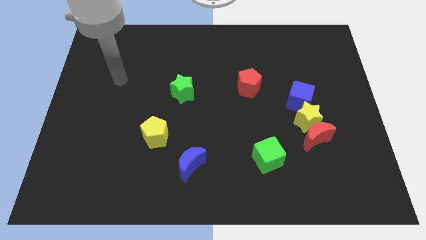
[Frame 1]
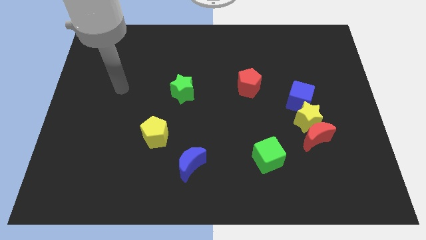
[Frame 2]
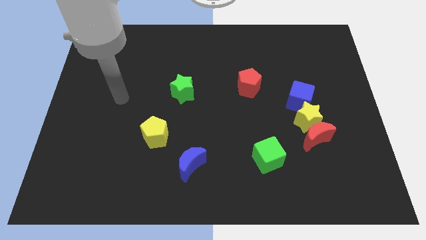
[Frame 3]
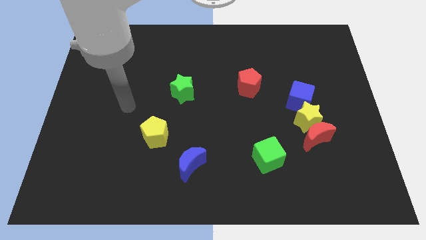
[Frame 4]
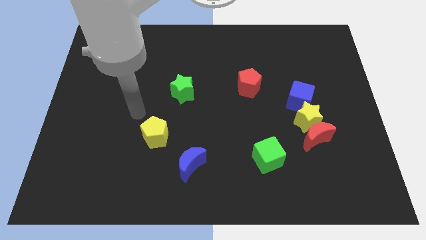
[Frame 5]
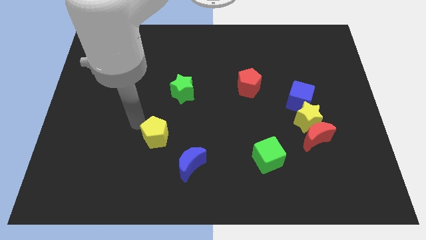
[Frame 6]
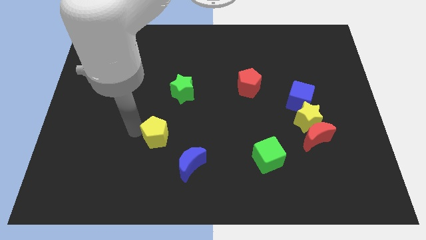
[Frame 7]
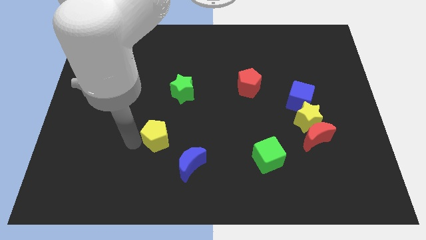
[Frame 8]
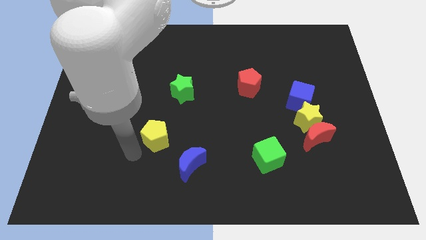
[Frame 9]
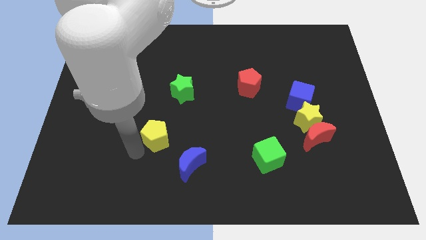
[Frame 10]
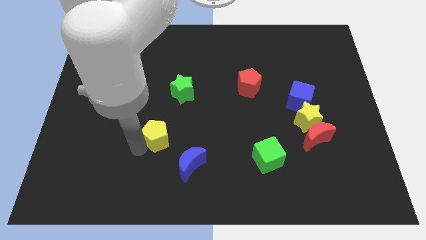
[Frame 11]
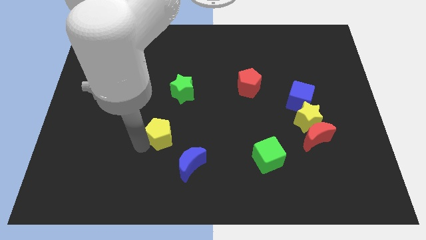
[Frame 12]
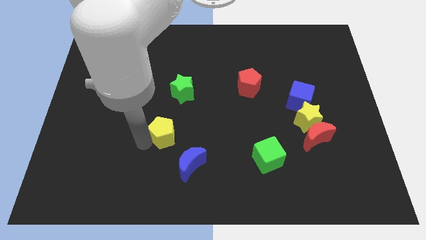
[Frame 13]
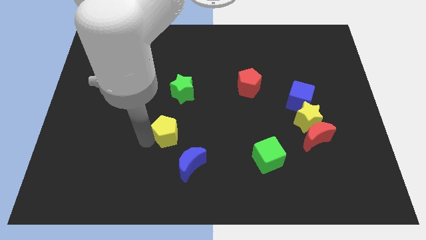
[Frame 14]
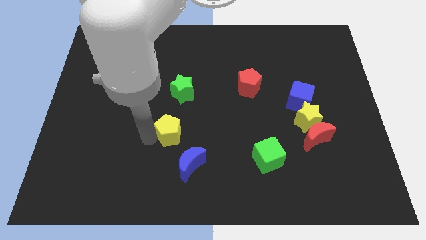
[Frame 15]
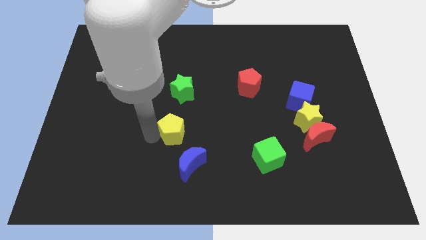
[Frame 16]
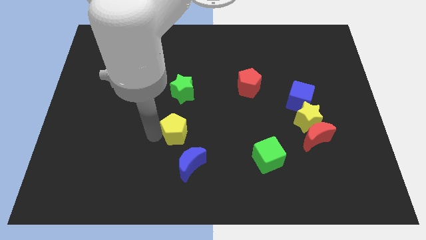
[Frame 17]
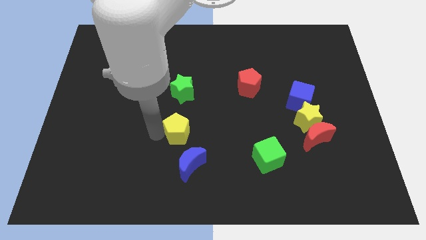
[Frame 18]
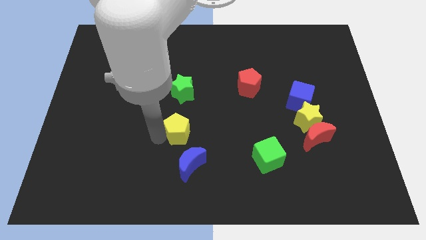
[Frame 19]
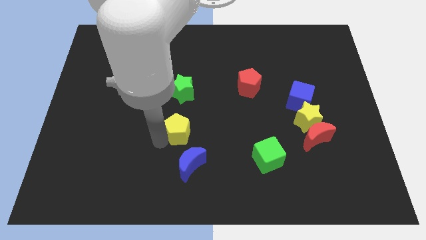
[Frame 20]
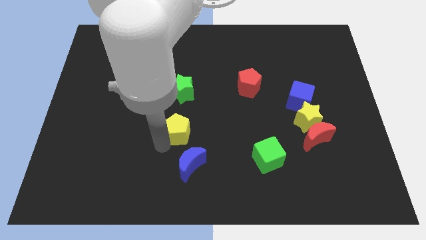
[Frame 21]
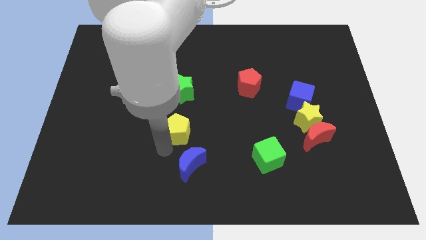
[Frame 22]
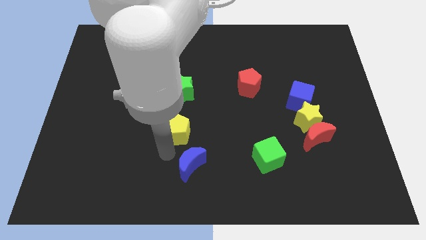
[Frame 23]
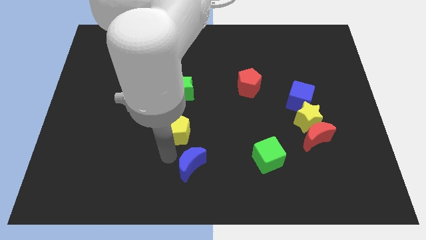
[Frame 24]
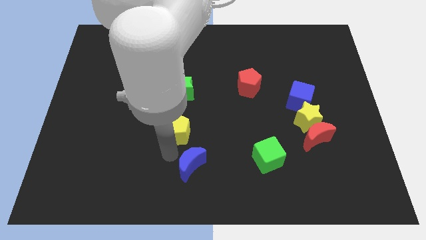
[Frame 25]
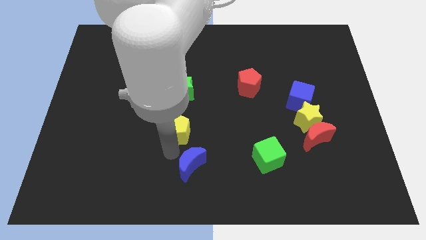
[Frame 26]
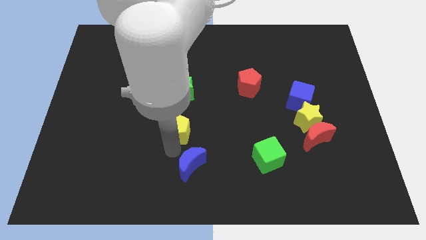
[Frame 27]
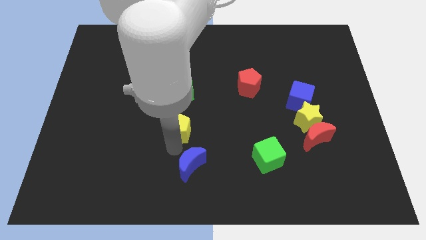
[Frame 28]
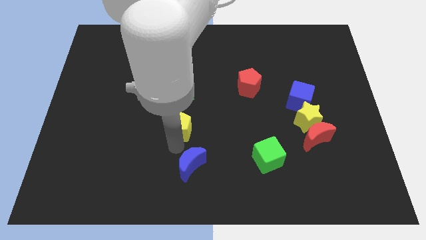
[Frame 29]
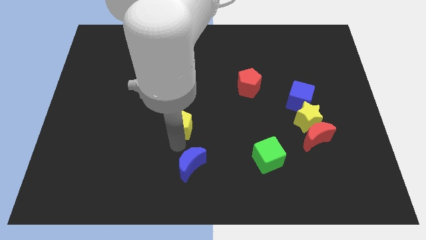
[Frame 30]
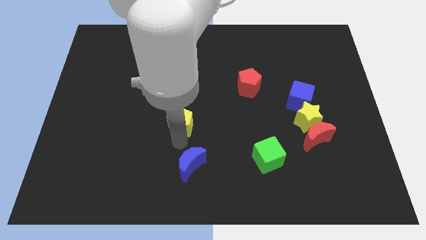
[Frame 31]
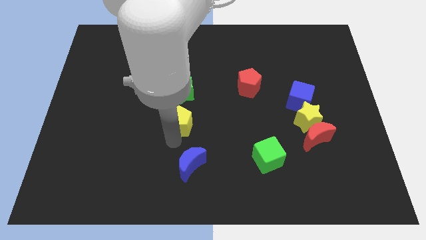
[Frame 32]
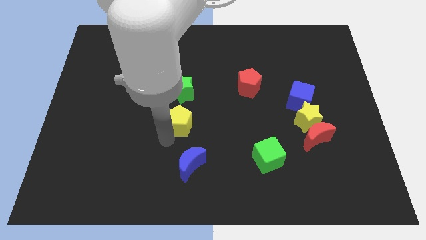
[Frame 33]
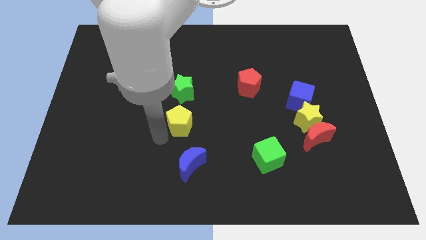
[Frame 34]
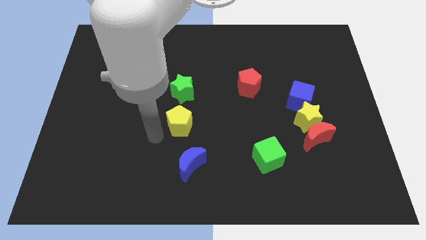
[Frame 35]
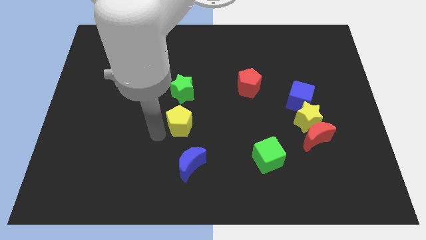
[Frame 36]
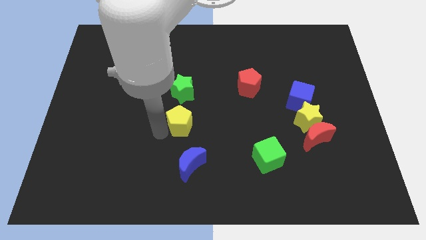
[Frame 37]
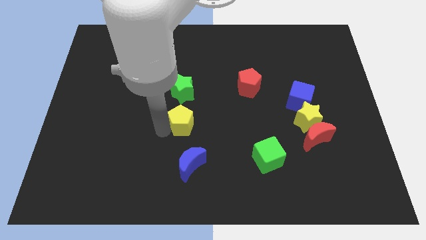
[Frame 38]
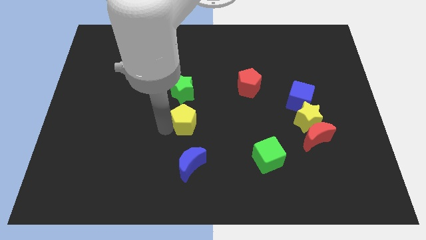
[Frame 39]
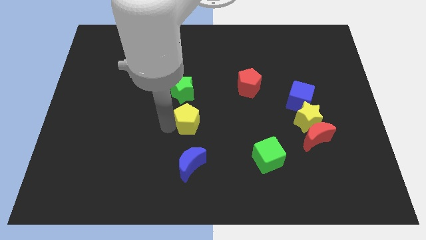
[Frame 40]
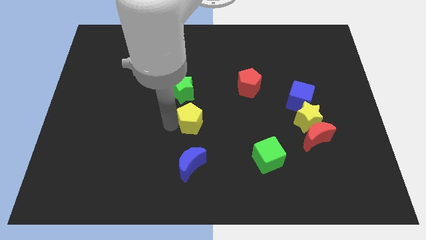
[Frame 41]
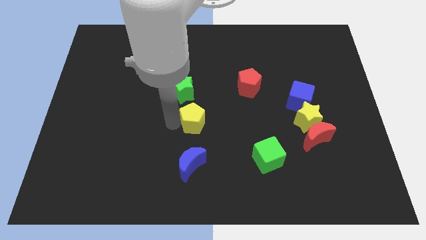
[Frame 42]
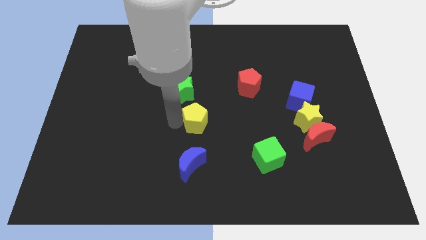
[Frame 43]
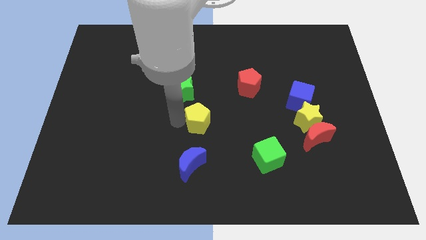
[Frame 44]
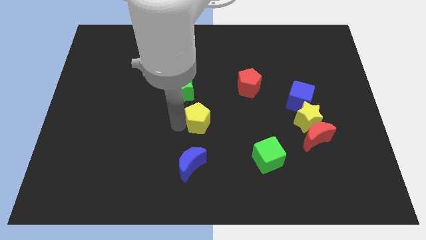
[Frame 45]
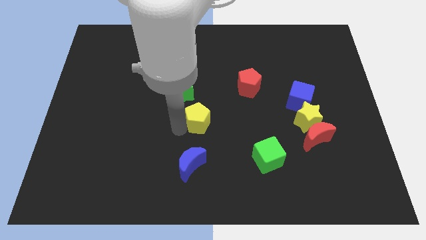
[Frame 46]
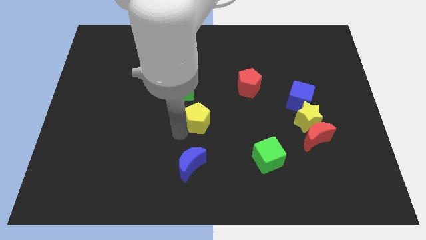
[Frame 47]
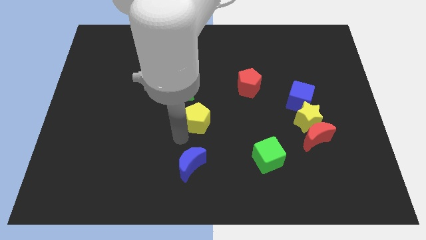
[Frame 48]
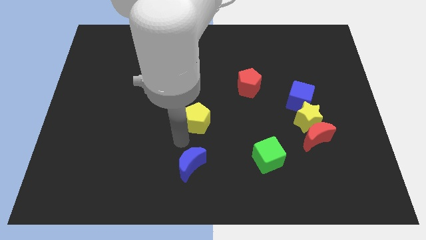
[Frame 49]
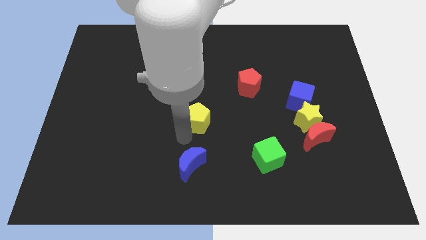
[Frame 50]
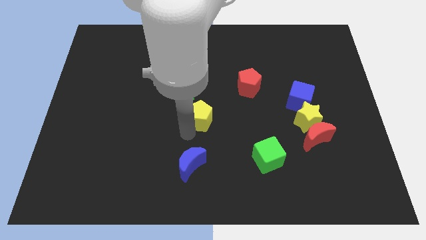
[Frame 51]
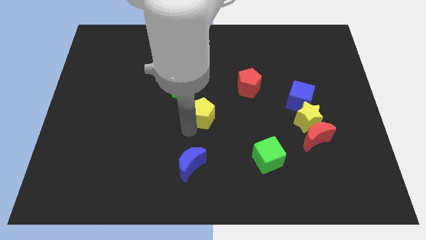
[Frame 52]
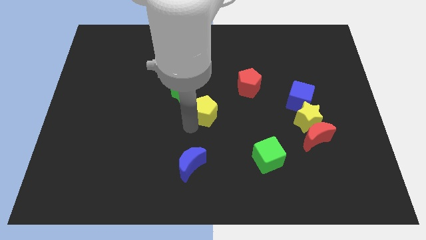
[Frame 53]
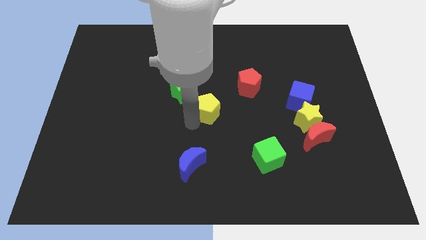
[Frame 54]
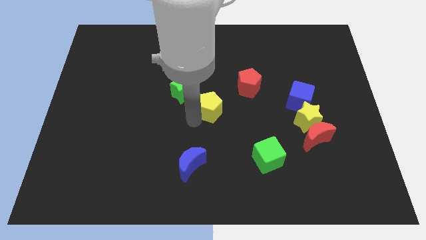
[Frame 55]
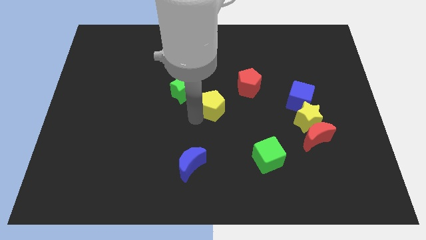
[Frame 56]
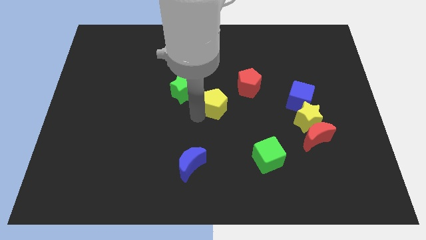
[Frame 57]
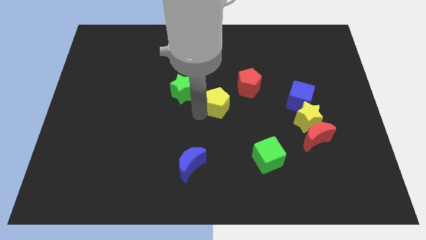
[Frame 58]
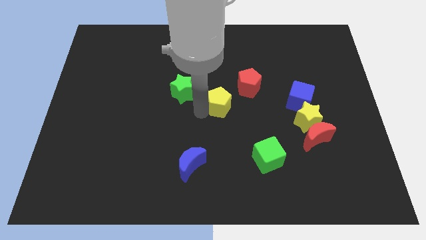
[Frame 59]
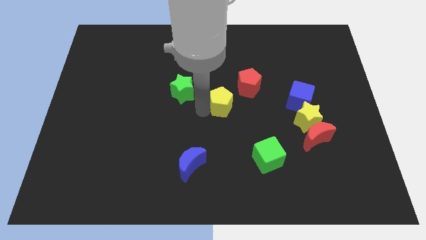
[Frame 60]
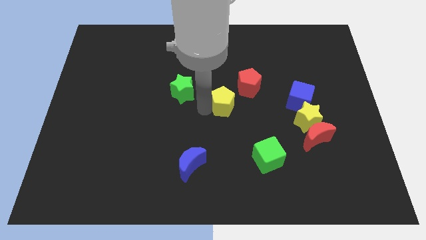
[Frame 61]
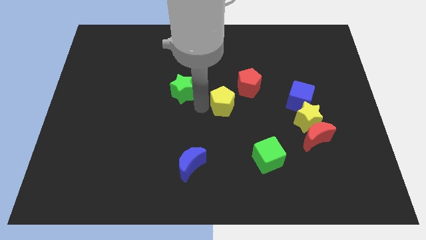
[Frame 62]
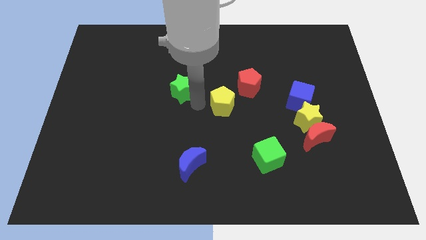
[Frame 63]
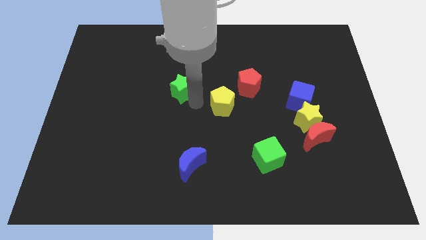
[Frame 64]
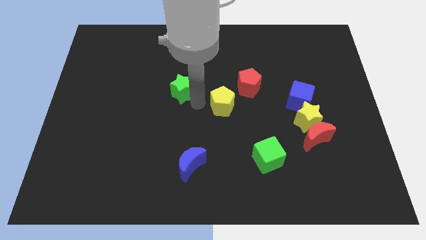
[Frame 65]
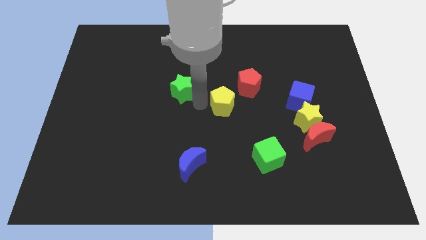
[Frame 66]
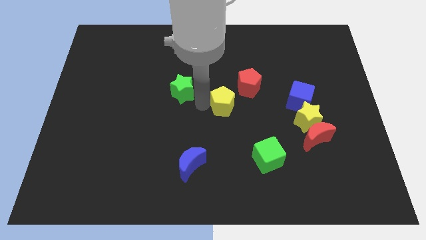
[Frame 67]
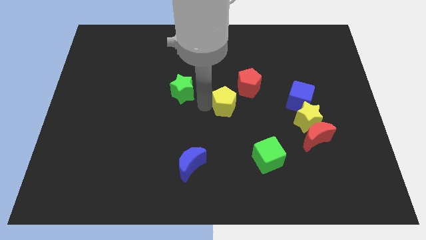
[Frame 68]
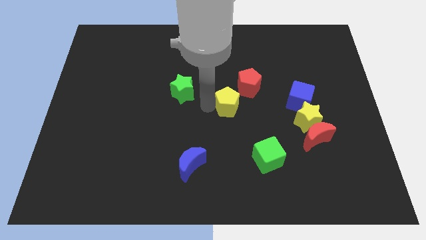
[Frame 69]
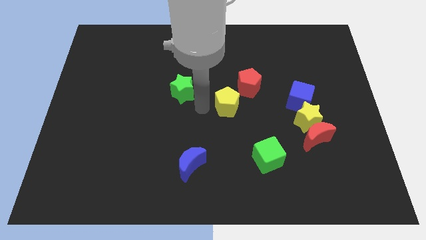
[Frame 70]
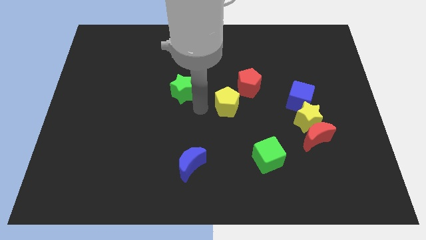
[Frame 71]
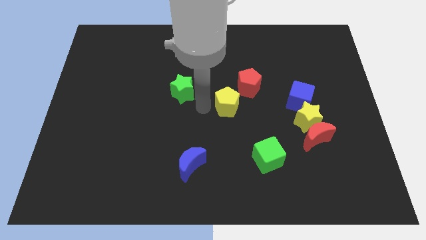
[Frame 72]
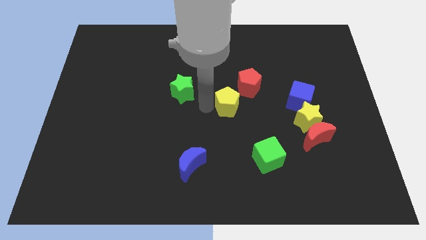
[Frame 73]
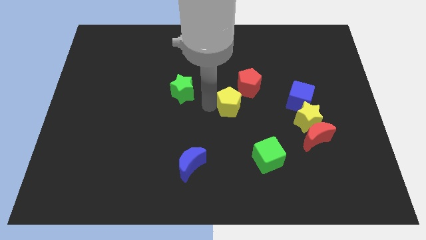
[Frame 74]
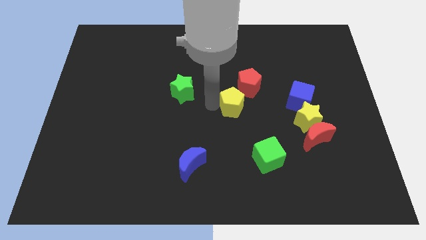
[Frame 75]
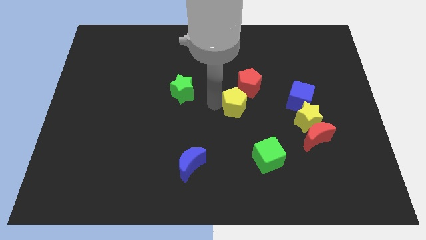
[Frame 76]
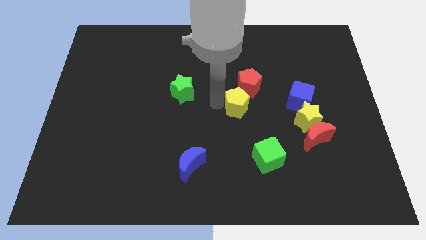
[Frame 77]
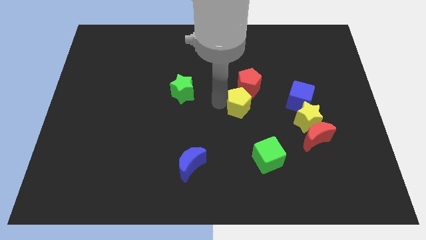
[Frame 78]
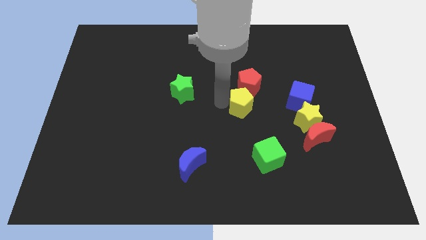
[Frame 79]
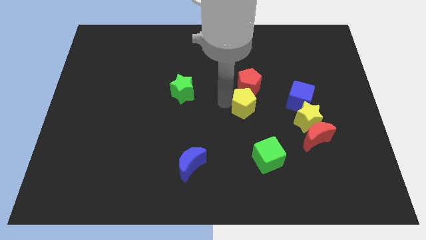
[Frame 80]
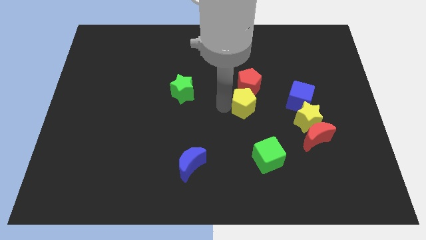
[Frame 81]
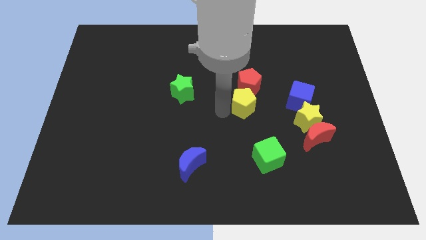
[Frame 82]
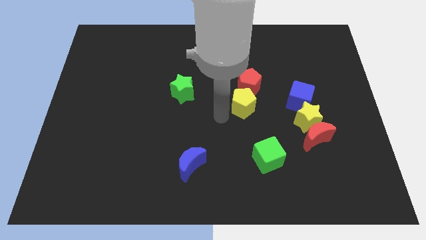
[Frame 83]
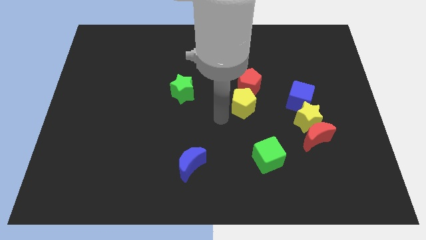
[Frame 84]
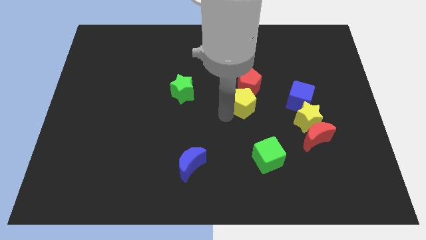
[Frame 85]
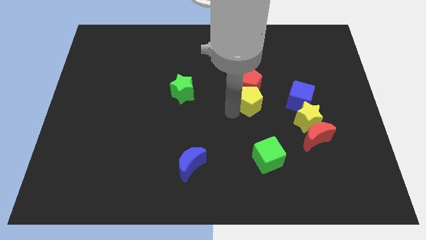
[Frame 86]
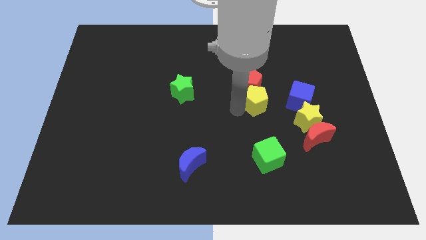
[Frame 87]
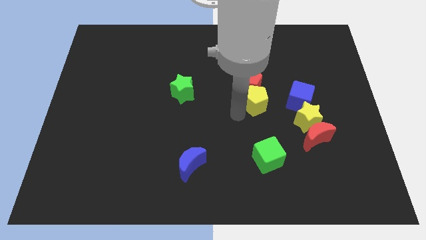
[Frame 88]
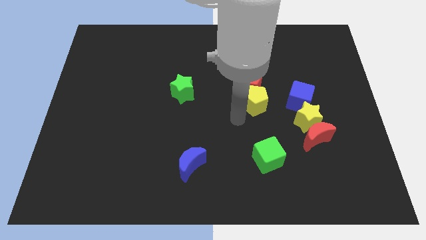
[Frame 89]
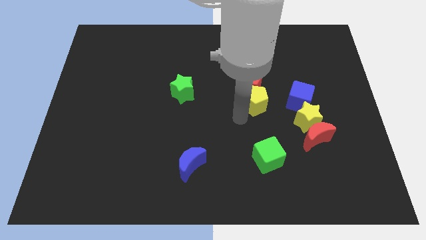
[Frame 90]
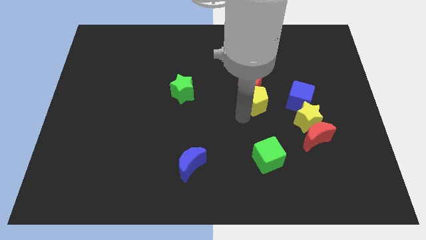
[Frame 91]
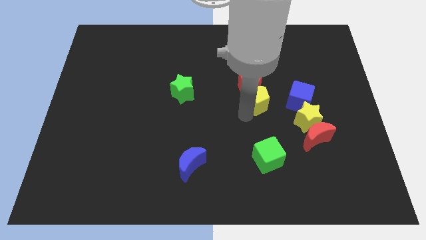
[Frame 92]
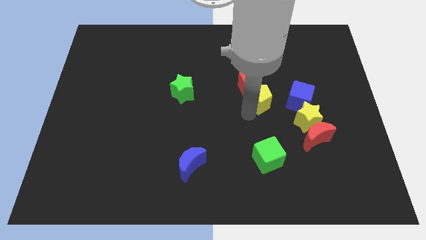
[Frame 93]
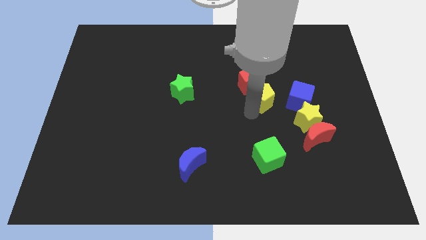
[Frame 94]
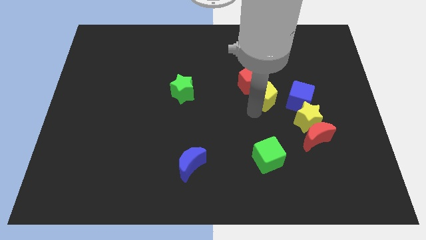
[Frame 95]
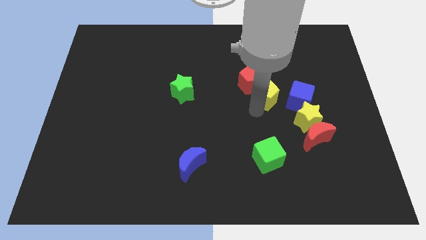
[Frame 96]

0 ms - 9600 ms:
put the yellow pentagon just right of the red pentagon
